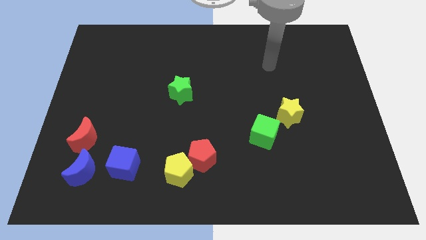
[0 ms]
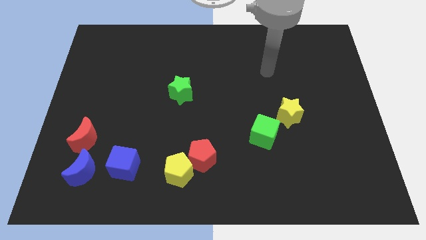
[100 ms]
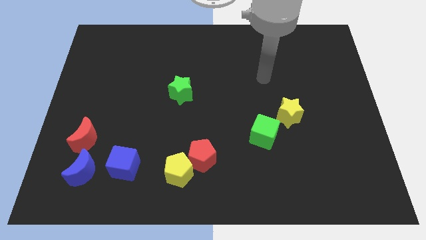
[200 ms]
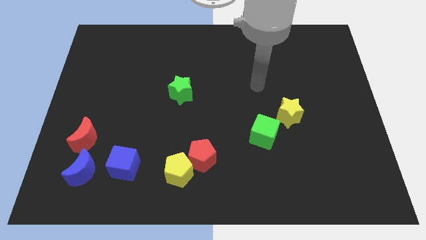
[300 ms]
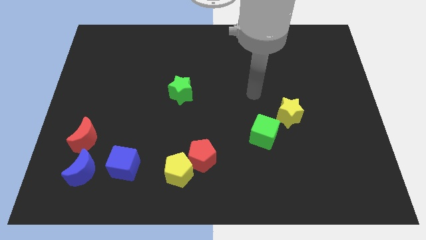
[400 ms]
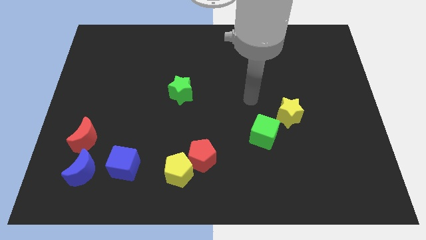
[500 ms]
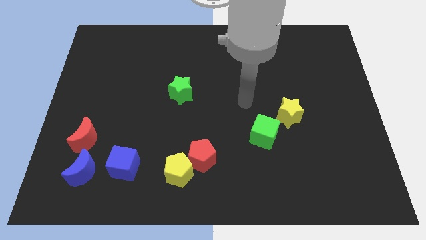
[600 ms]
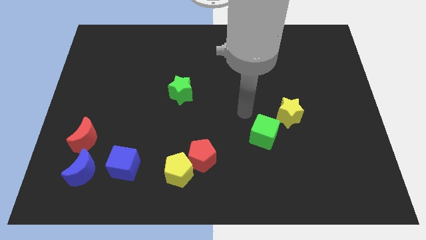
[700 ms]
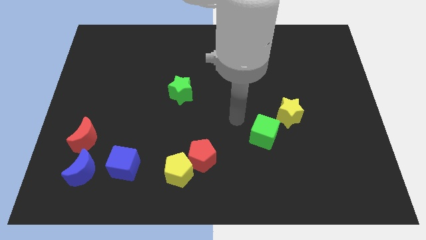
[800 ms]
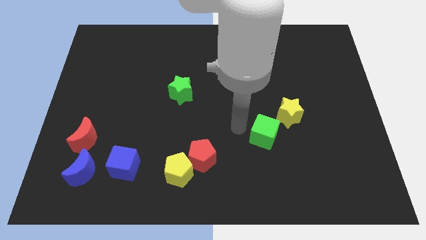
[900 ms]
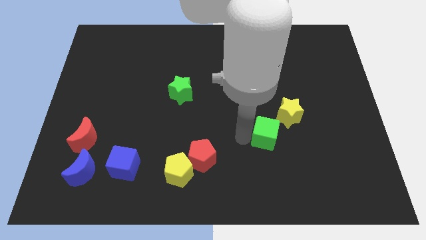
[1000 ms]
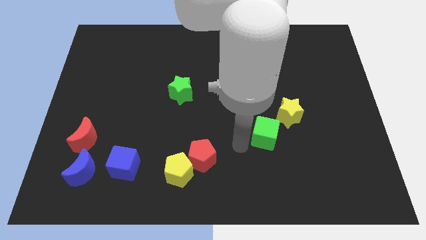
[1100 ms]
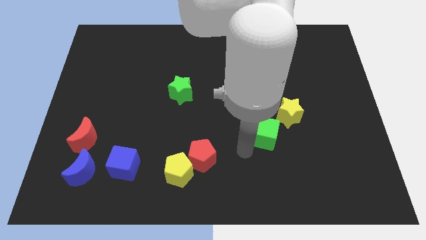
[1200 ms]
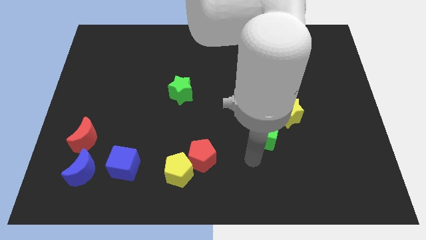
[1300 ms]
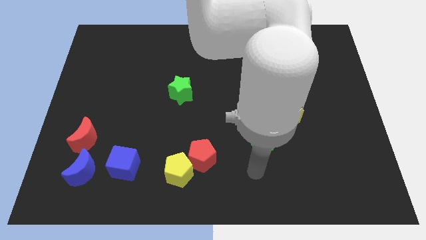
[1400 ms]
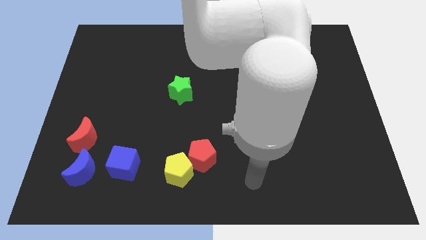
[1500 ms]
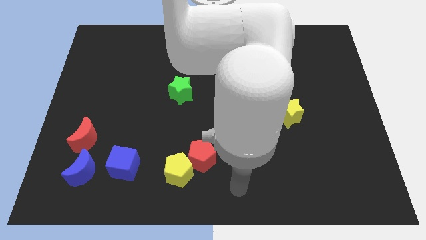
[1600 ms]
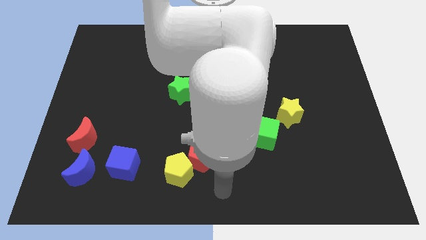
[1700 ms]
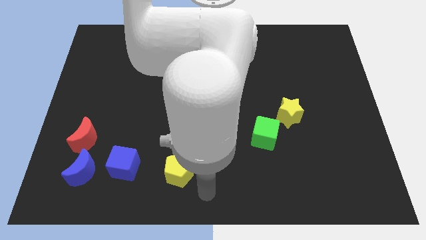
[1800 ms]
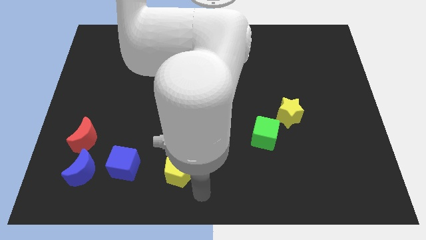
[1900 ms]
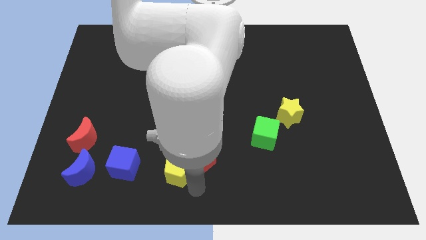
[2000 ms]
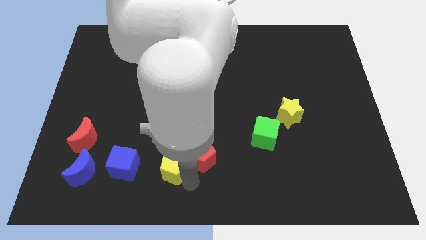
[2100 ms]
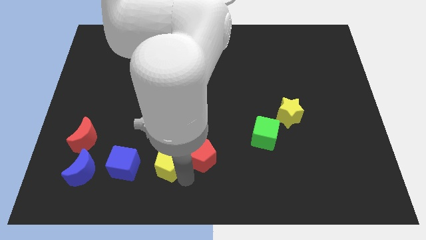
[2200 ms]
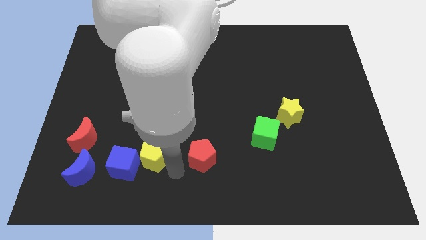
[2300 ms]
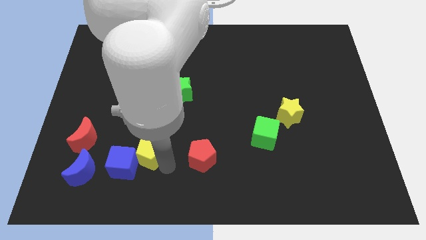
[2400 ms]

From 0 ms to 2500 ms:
push the yellow pentagon slightly upwards and to the left diagonally

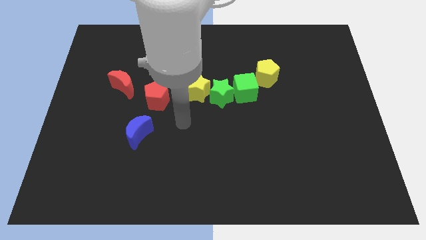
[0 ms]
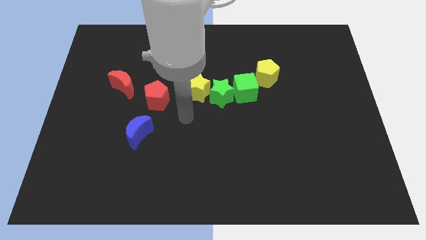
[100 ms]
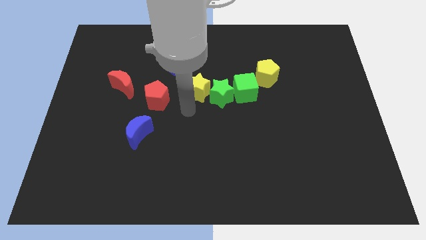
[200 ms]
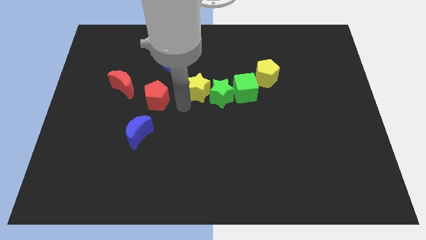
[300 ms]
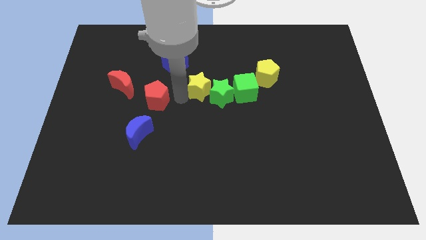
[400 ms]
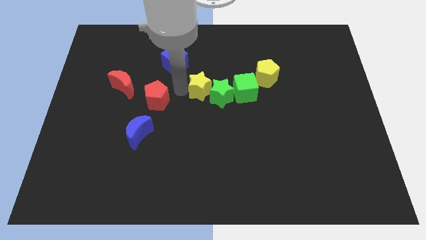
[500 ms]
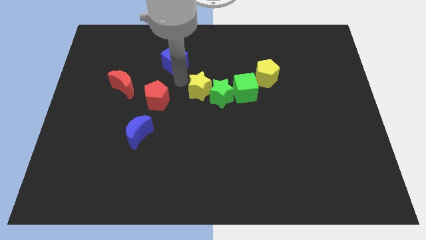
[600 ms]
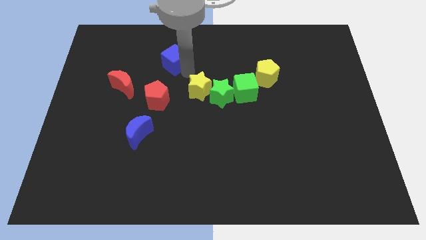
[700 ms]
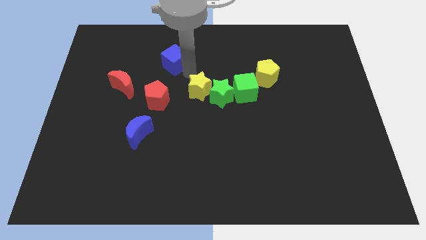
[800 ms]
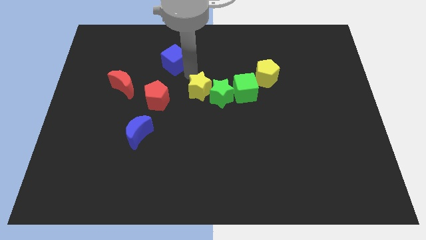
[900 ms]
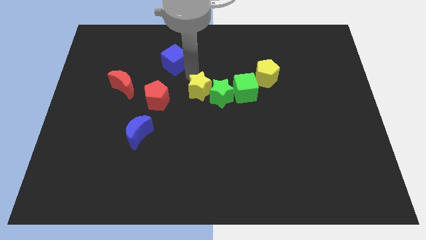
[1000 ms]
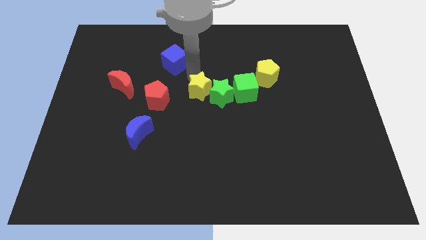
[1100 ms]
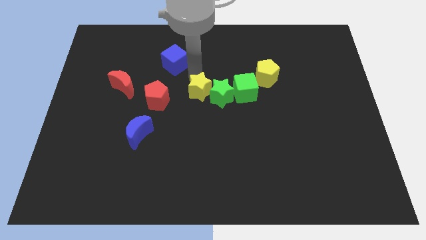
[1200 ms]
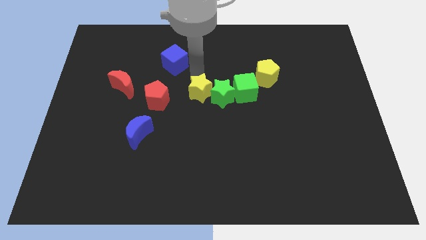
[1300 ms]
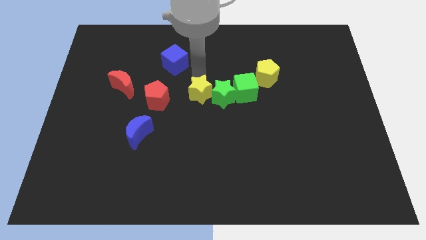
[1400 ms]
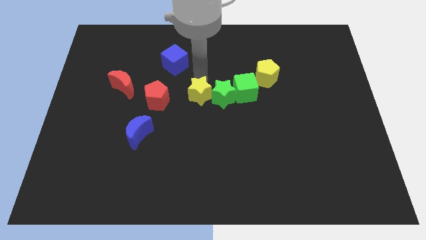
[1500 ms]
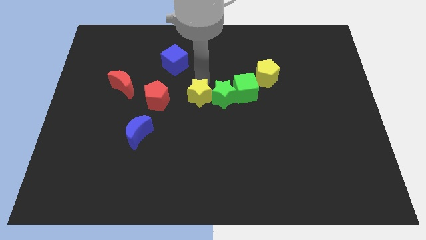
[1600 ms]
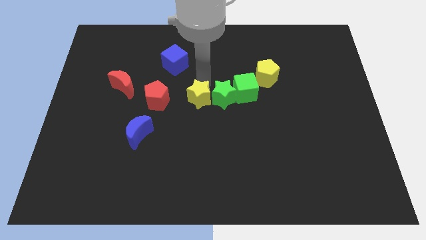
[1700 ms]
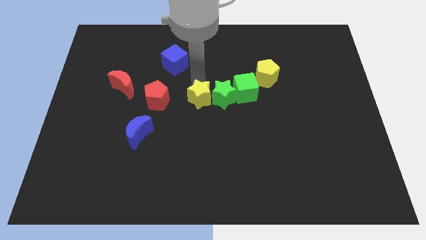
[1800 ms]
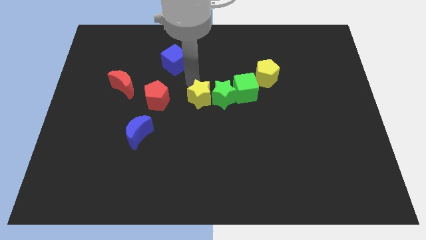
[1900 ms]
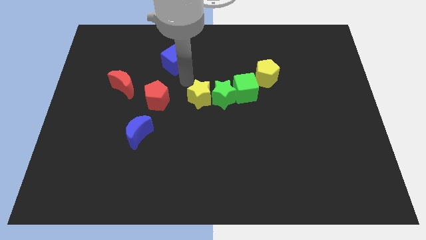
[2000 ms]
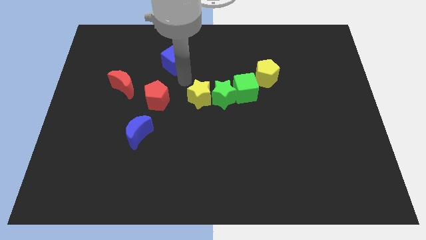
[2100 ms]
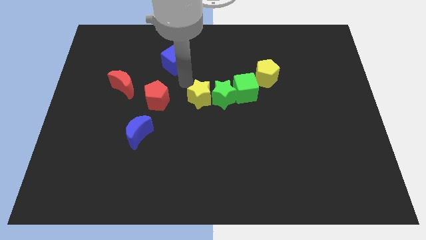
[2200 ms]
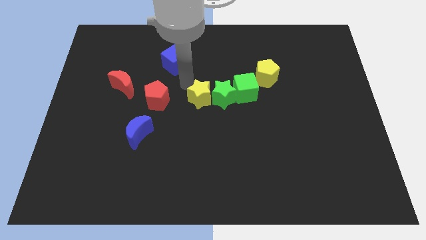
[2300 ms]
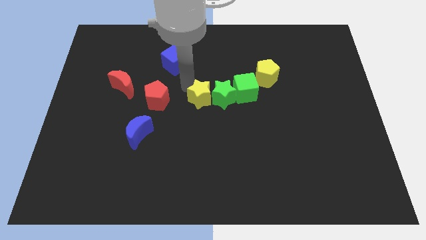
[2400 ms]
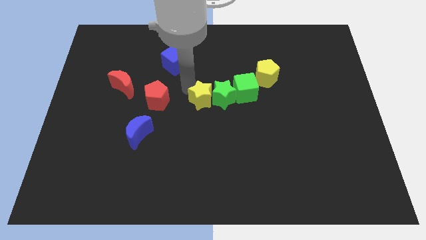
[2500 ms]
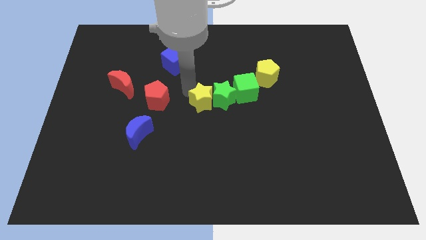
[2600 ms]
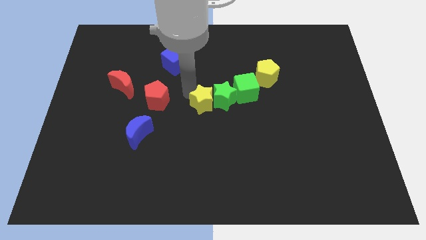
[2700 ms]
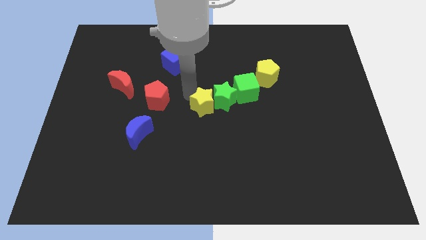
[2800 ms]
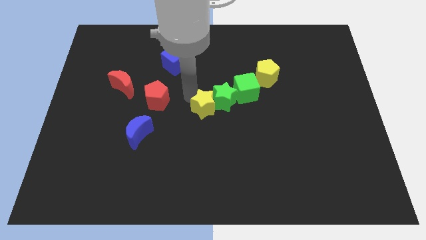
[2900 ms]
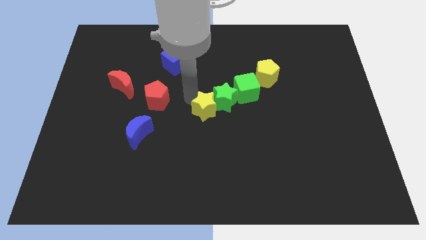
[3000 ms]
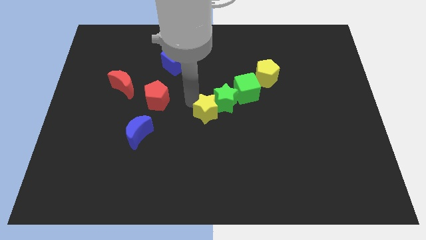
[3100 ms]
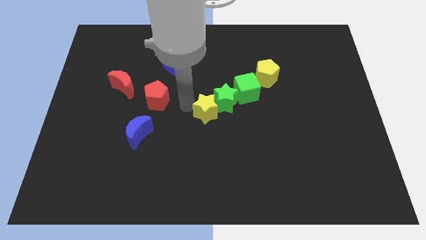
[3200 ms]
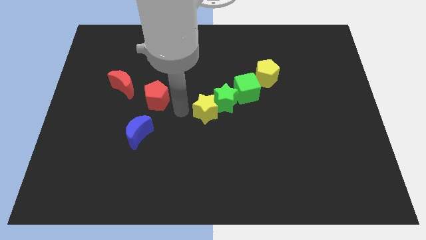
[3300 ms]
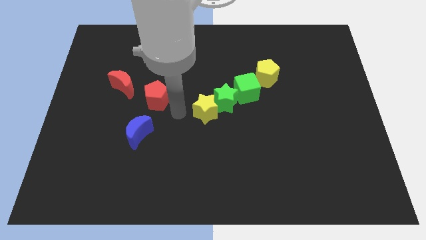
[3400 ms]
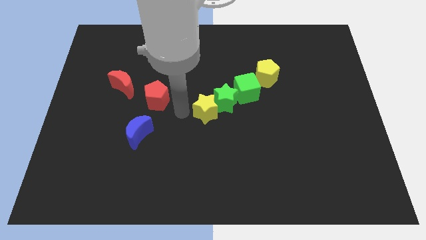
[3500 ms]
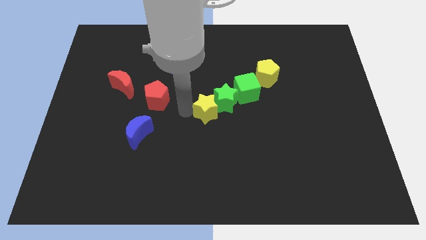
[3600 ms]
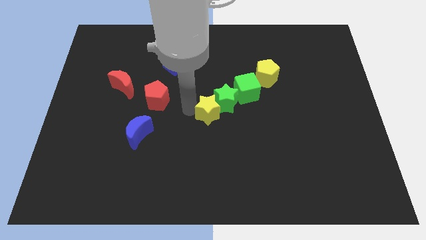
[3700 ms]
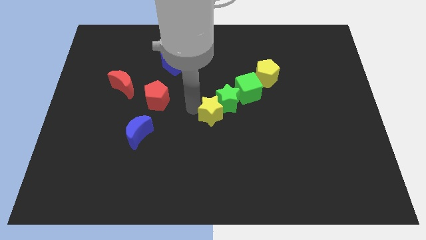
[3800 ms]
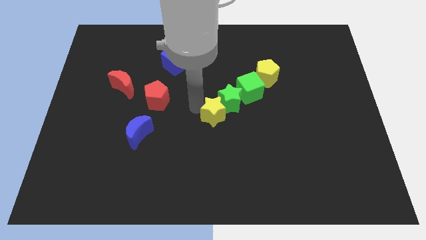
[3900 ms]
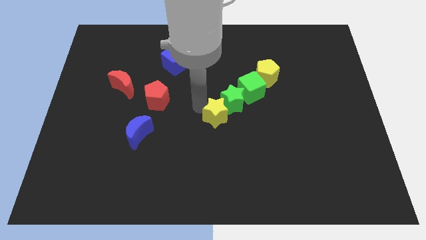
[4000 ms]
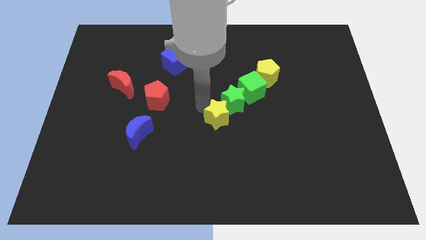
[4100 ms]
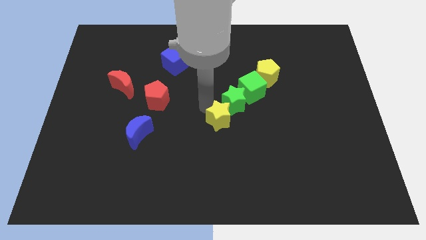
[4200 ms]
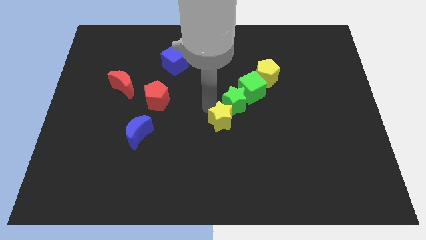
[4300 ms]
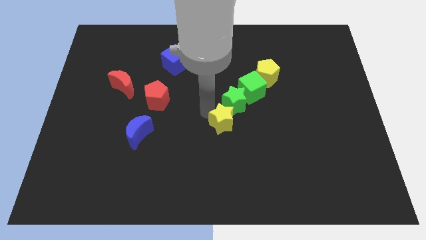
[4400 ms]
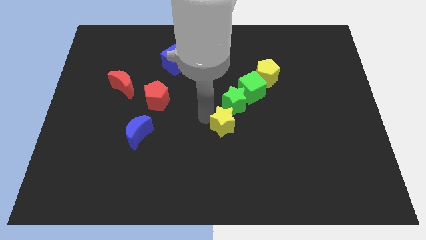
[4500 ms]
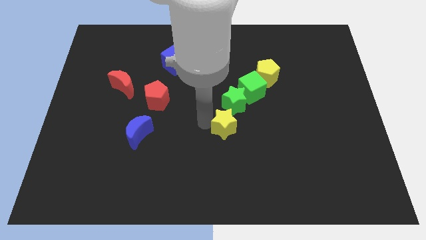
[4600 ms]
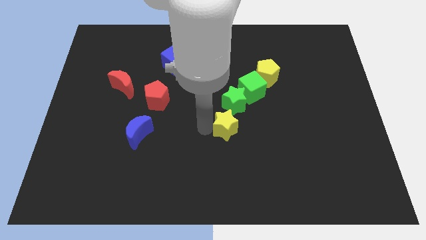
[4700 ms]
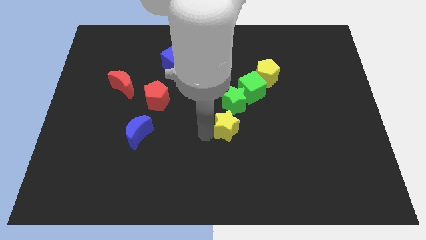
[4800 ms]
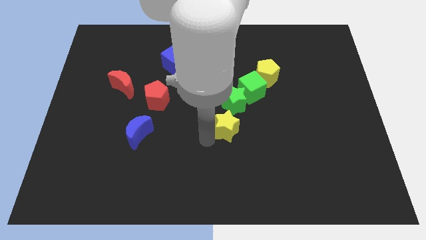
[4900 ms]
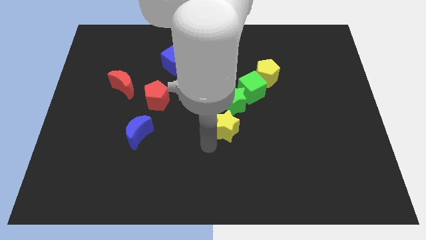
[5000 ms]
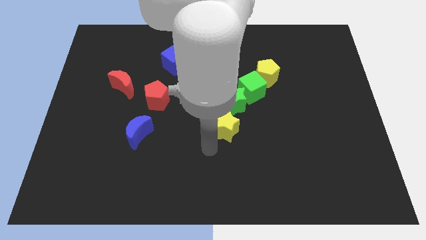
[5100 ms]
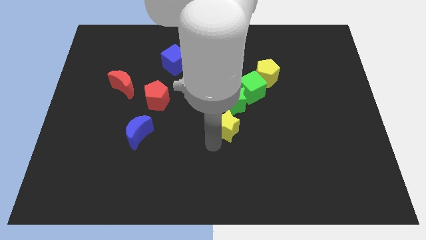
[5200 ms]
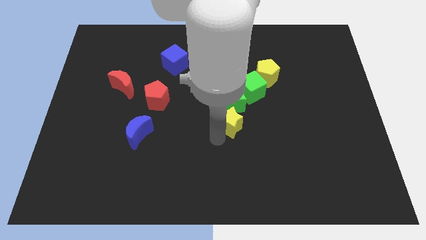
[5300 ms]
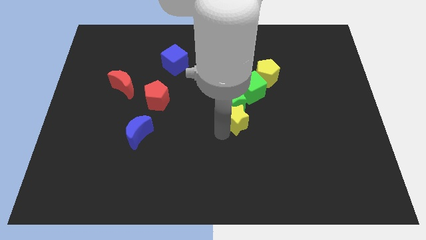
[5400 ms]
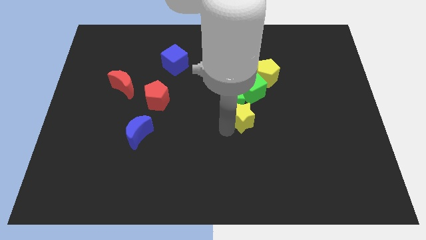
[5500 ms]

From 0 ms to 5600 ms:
move the yellow star to the right slightly

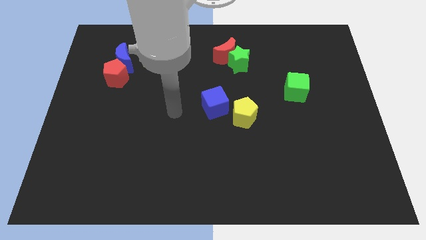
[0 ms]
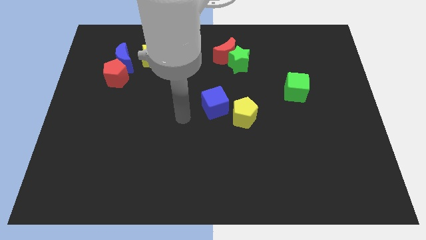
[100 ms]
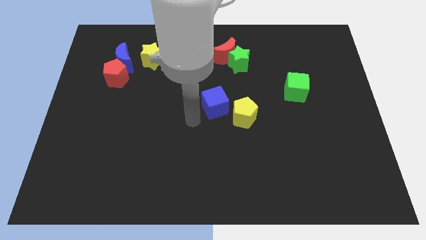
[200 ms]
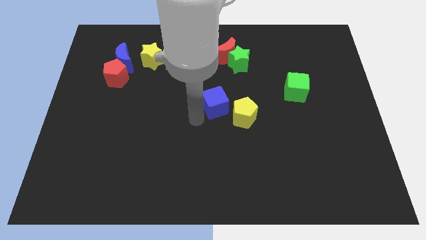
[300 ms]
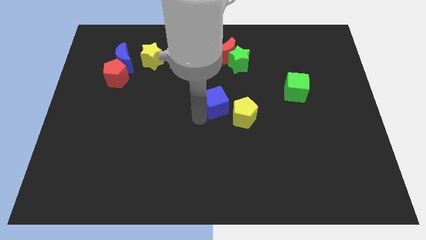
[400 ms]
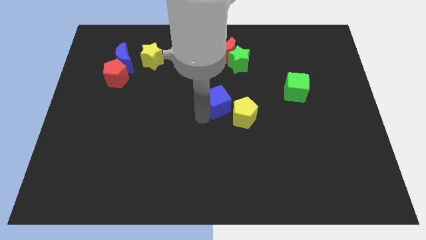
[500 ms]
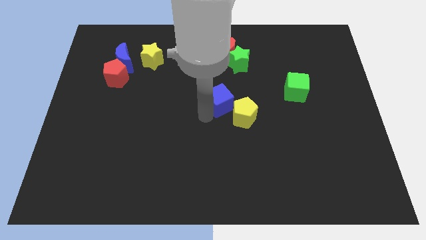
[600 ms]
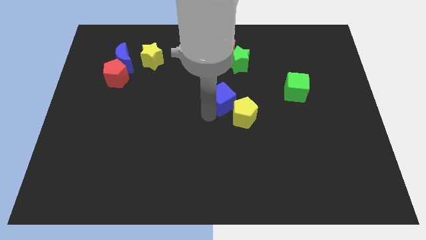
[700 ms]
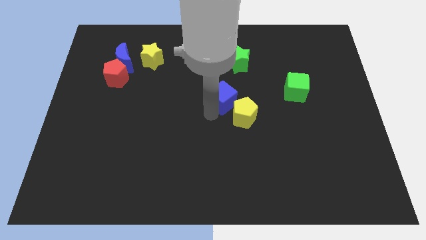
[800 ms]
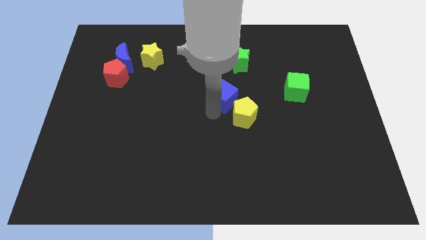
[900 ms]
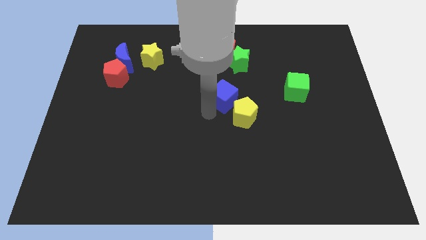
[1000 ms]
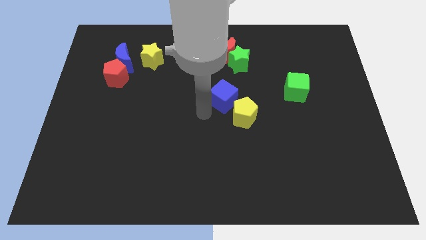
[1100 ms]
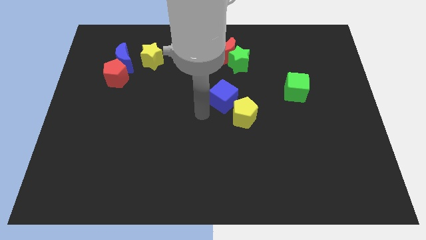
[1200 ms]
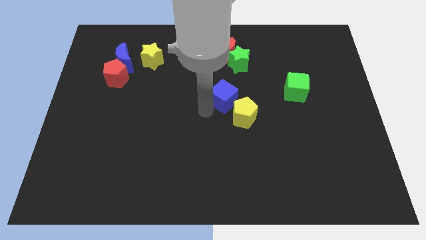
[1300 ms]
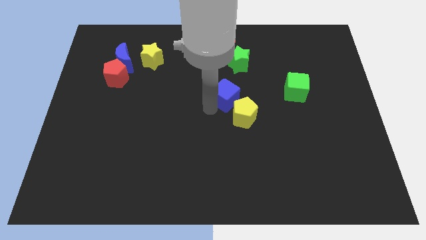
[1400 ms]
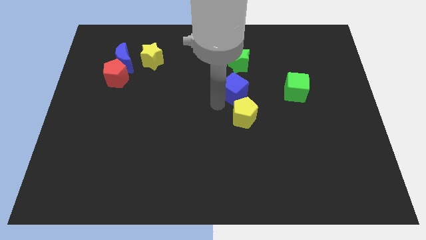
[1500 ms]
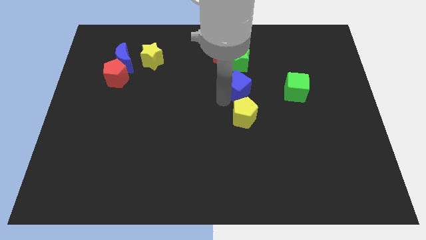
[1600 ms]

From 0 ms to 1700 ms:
push the blue cube slightly diagonally up and to the right
